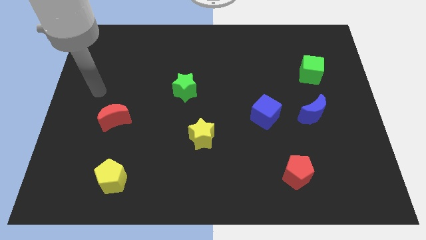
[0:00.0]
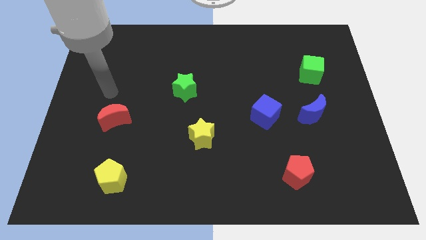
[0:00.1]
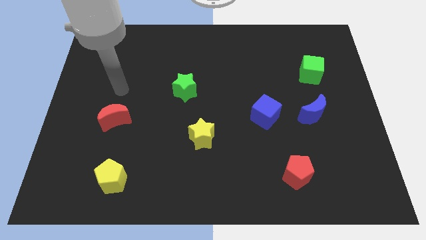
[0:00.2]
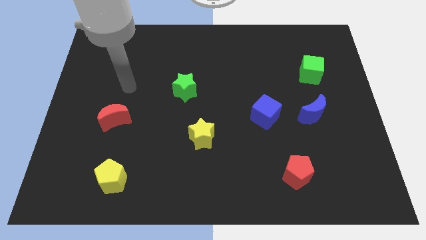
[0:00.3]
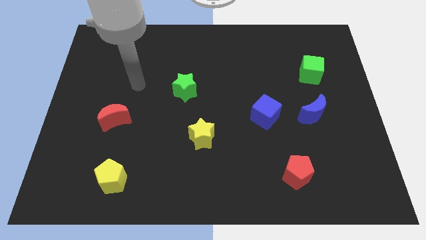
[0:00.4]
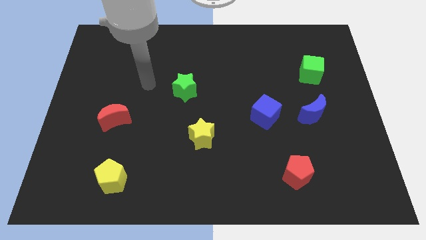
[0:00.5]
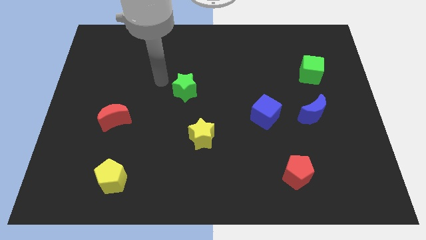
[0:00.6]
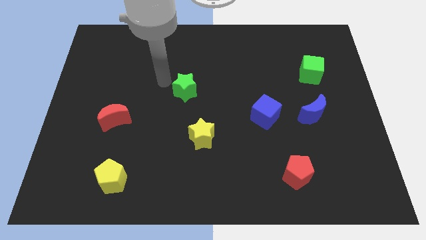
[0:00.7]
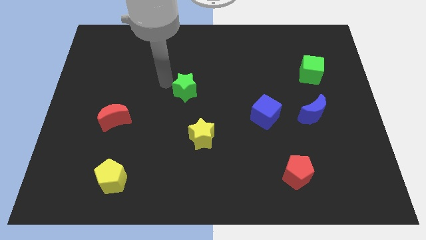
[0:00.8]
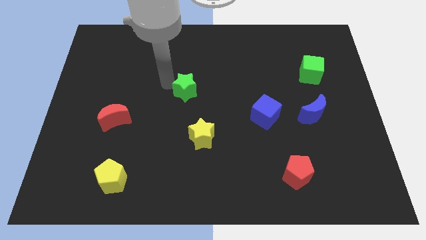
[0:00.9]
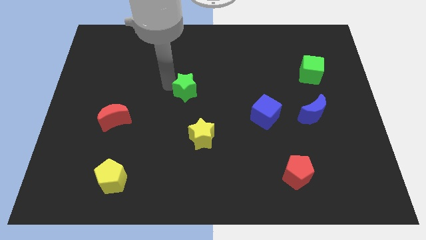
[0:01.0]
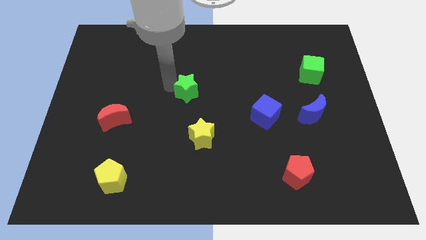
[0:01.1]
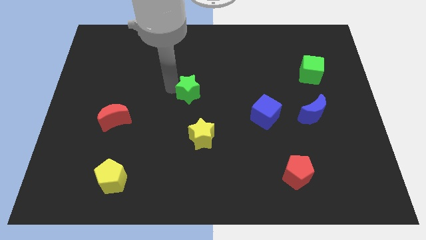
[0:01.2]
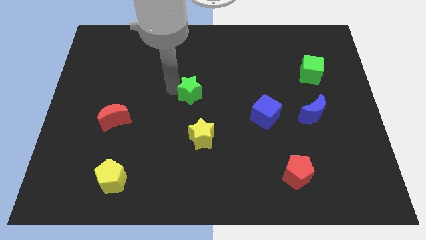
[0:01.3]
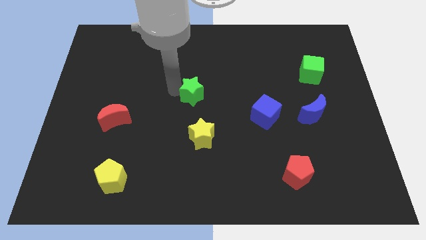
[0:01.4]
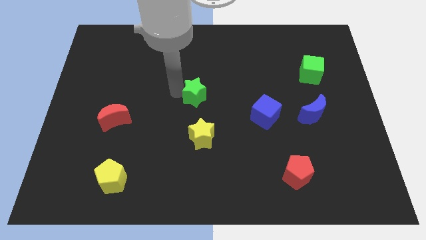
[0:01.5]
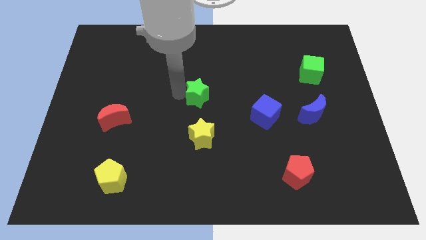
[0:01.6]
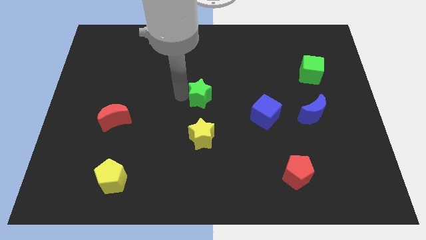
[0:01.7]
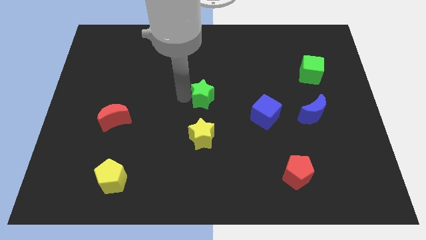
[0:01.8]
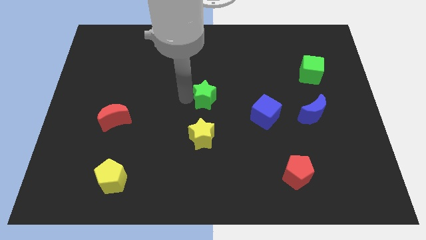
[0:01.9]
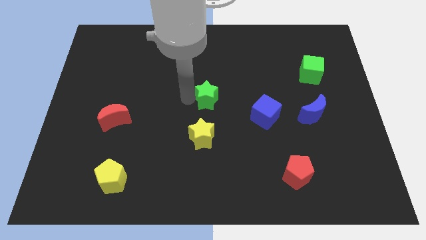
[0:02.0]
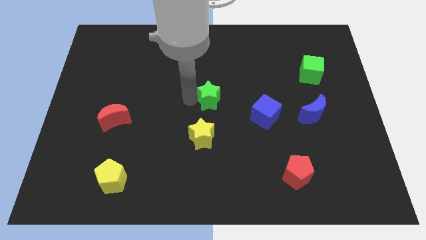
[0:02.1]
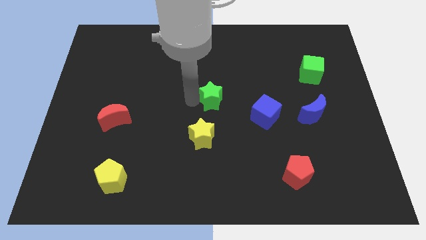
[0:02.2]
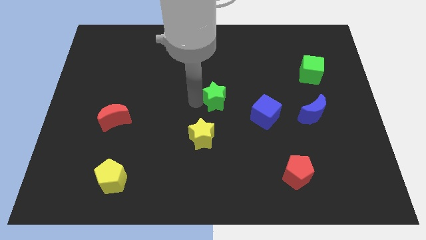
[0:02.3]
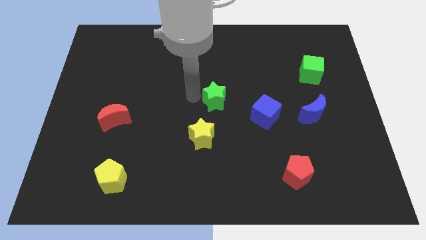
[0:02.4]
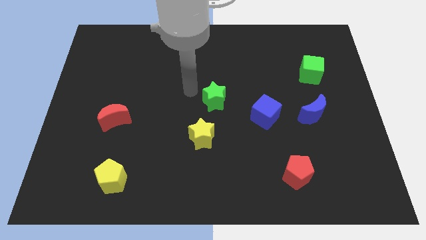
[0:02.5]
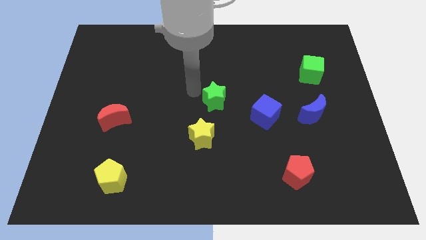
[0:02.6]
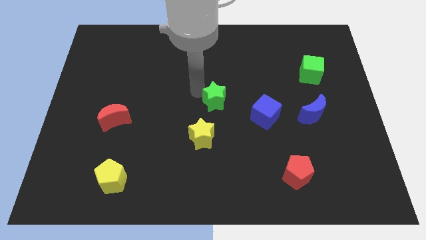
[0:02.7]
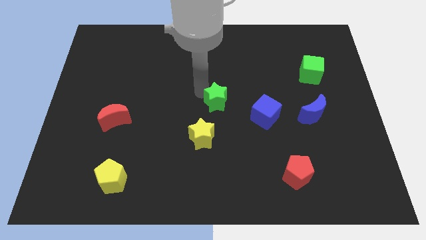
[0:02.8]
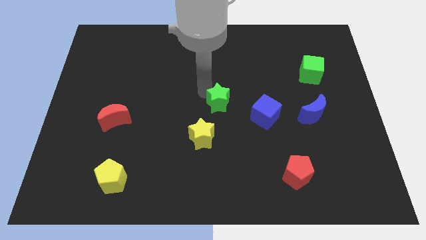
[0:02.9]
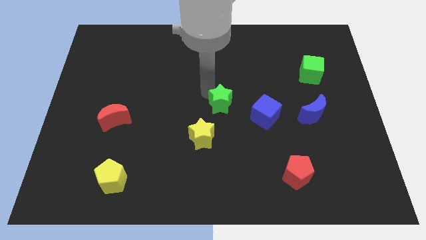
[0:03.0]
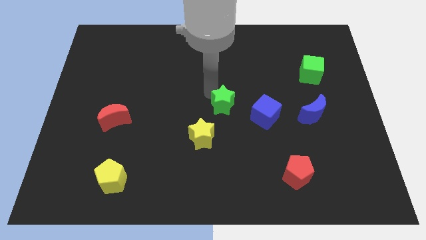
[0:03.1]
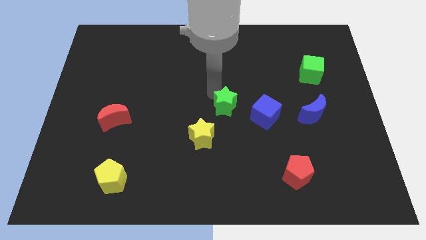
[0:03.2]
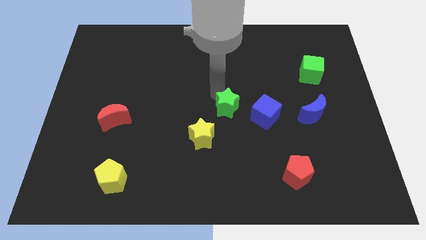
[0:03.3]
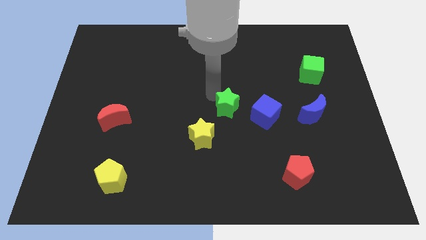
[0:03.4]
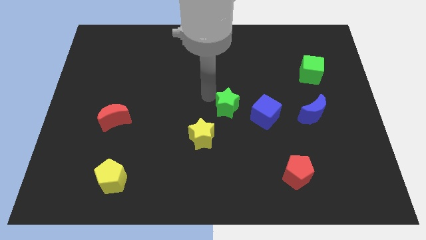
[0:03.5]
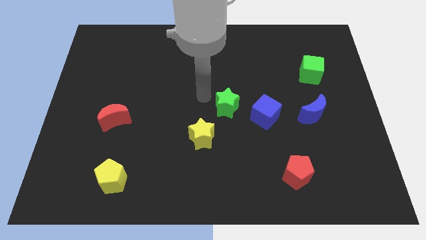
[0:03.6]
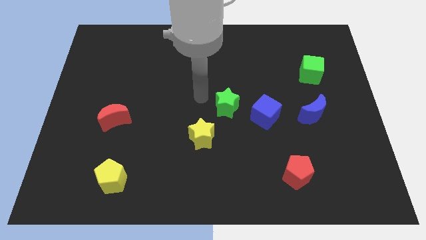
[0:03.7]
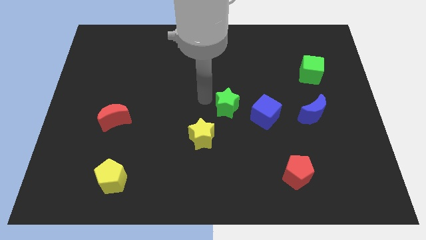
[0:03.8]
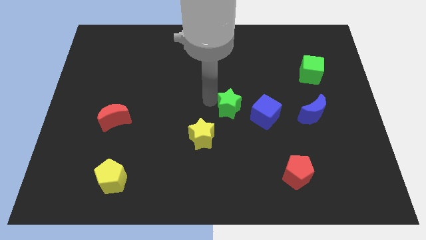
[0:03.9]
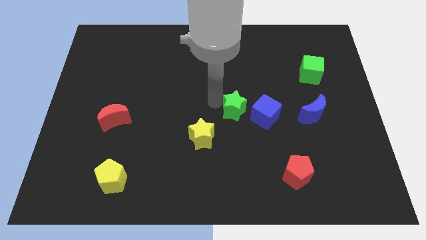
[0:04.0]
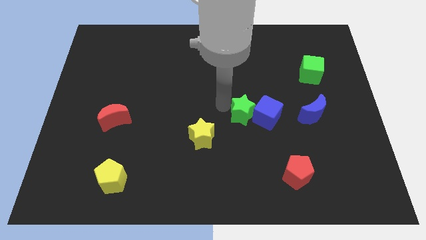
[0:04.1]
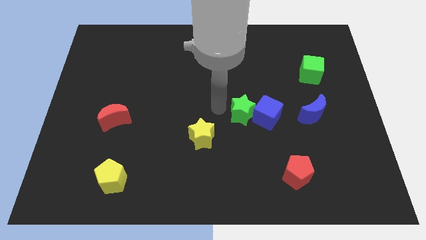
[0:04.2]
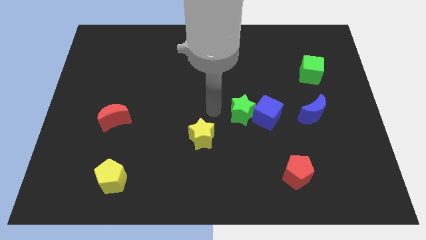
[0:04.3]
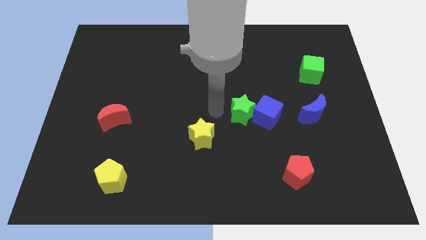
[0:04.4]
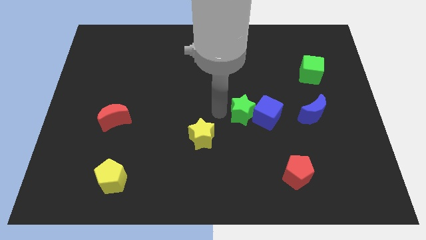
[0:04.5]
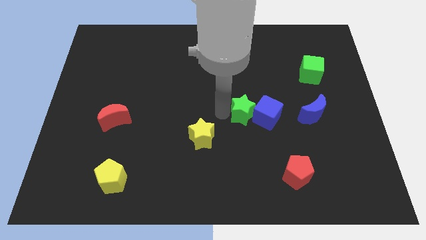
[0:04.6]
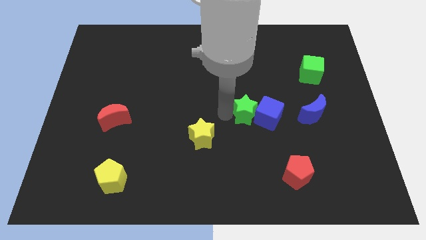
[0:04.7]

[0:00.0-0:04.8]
slide the green star to the left side of the blue moon

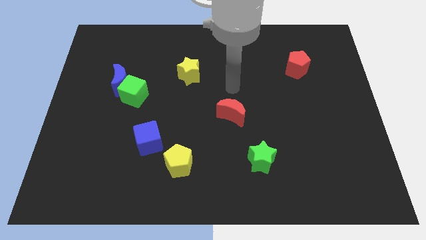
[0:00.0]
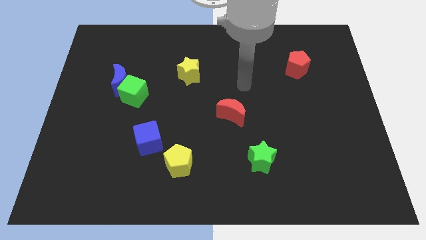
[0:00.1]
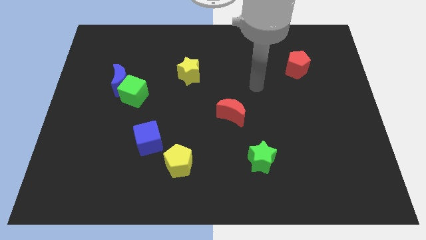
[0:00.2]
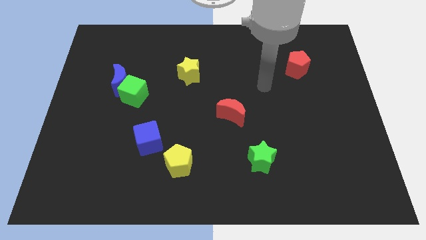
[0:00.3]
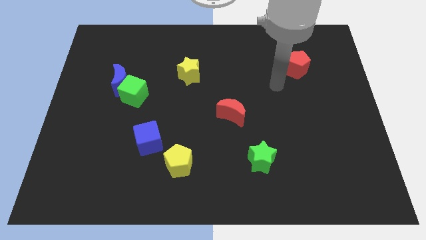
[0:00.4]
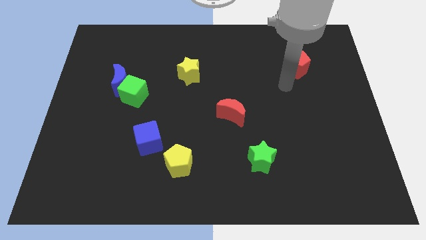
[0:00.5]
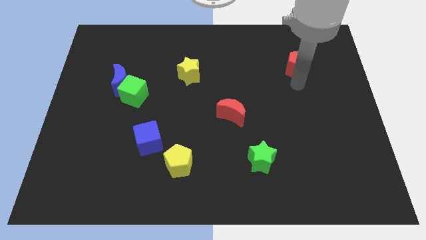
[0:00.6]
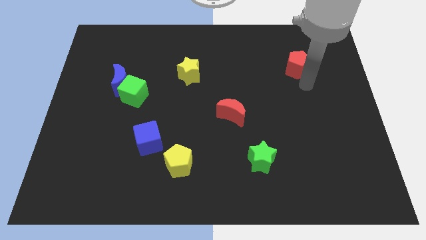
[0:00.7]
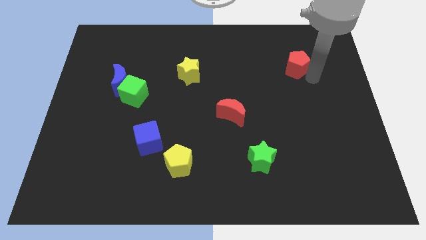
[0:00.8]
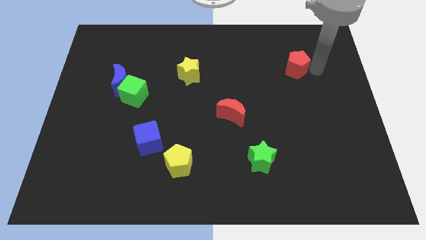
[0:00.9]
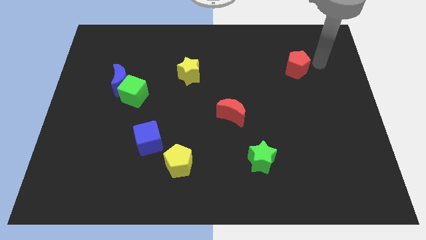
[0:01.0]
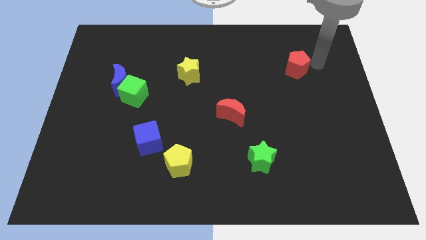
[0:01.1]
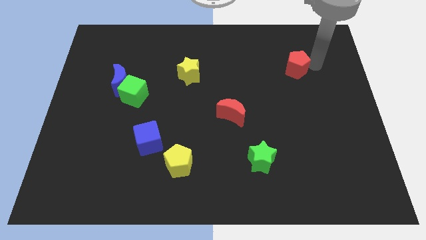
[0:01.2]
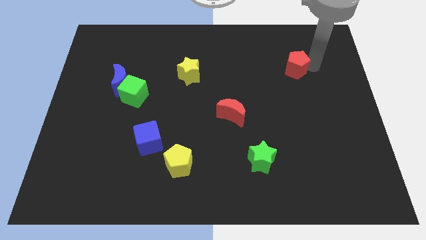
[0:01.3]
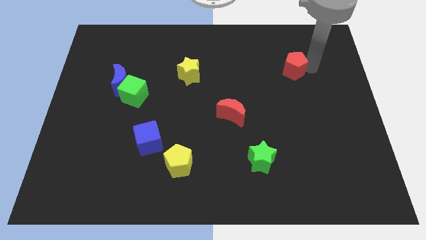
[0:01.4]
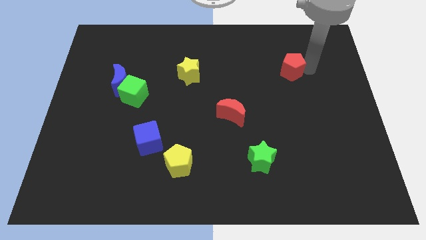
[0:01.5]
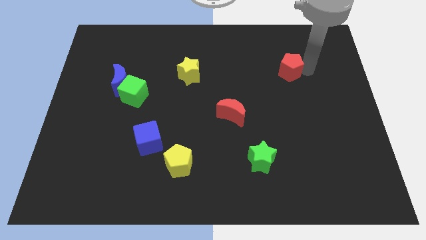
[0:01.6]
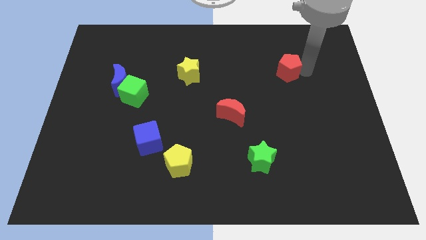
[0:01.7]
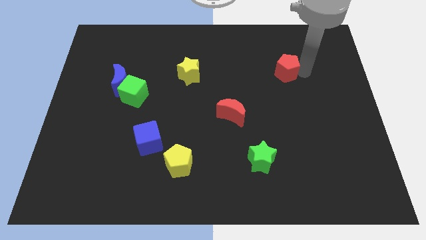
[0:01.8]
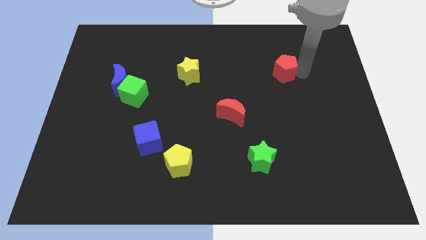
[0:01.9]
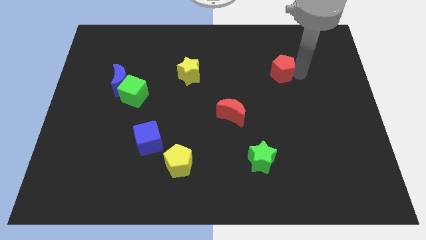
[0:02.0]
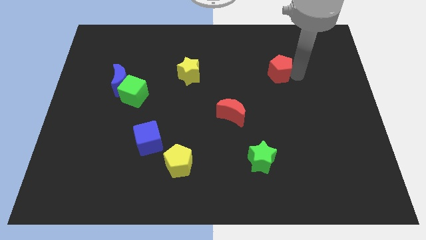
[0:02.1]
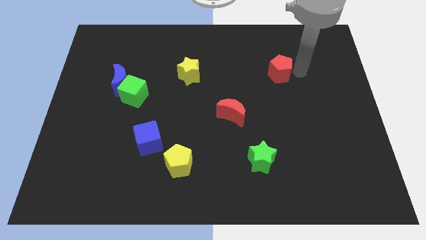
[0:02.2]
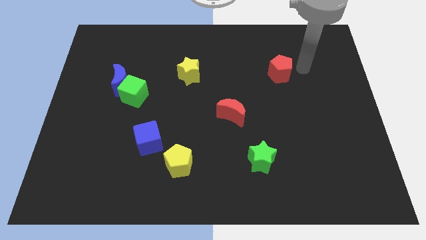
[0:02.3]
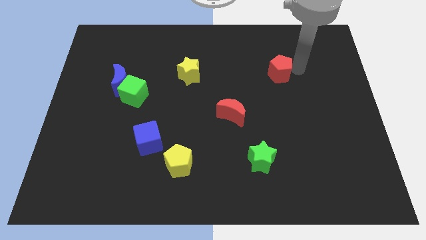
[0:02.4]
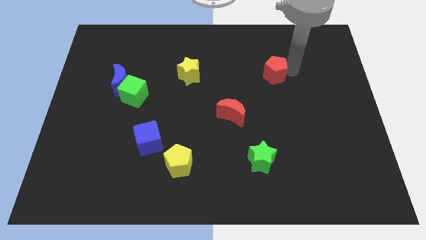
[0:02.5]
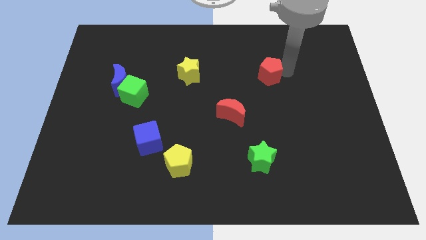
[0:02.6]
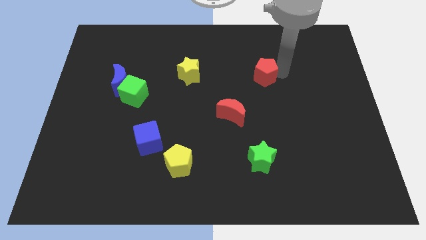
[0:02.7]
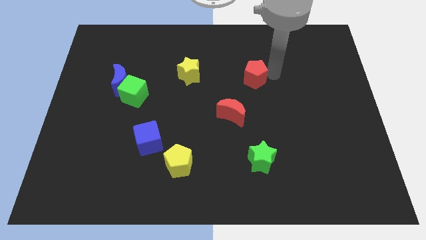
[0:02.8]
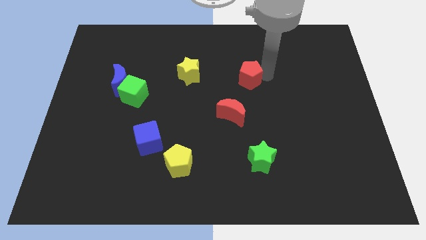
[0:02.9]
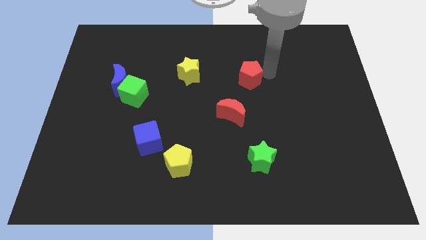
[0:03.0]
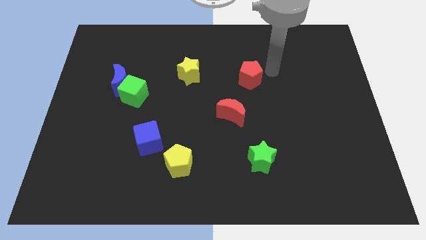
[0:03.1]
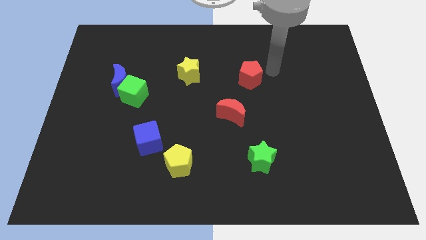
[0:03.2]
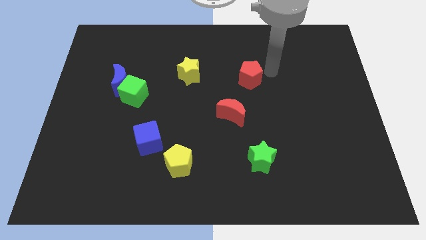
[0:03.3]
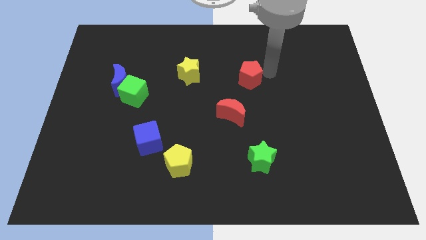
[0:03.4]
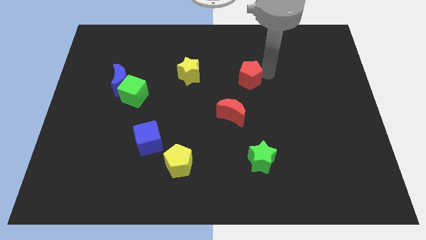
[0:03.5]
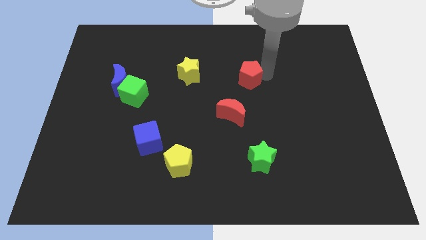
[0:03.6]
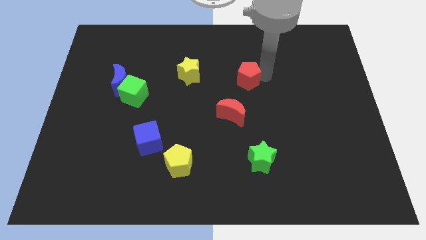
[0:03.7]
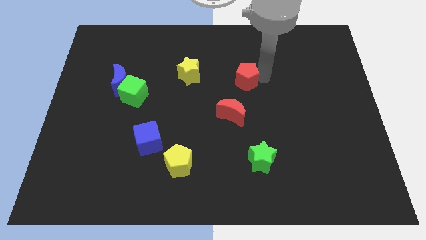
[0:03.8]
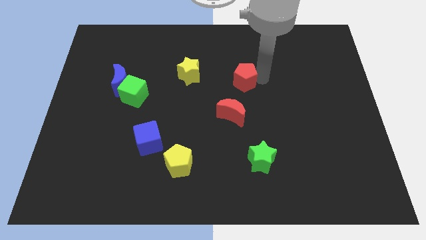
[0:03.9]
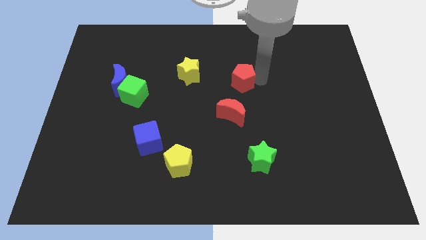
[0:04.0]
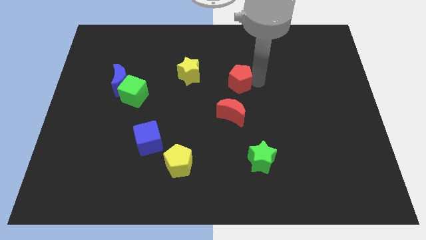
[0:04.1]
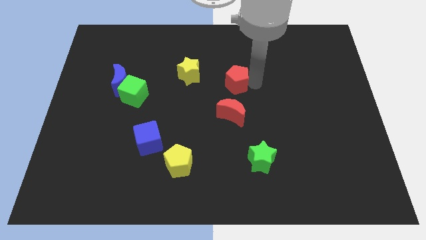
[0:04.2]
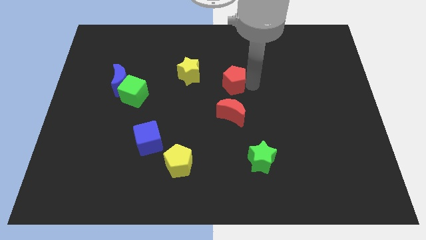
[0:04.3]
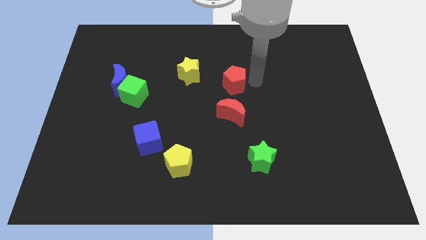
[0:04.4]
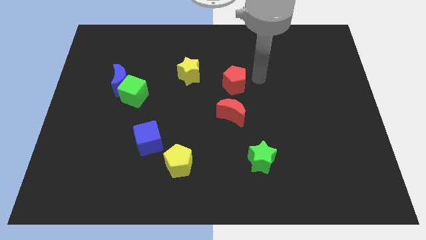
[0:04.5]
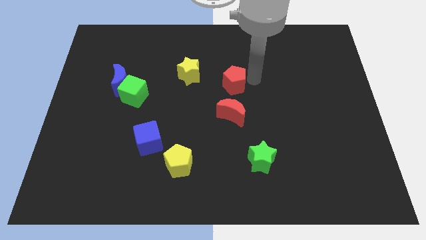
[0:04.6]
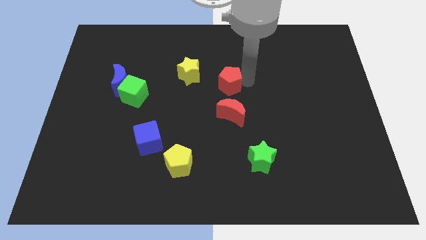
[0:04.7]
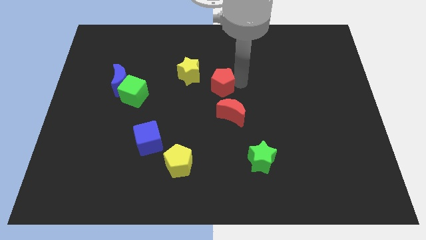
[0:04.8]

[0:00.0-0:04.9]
slide the red pentagon to the bottom right side of the yellow star
